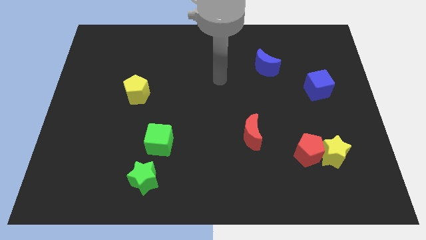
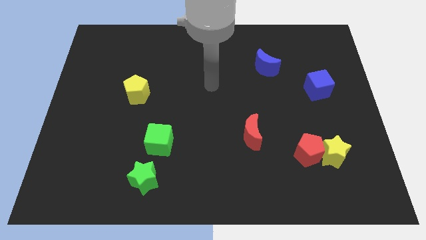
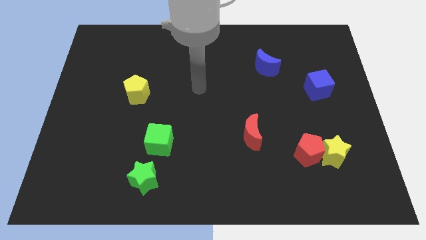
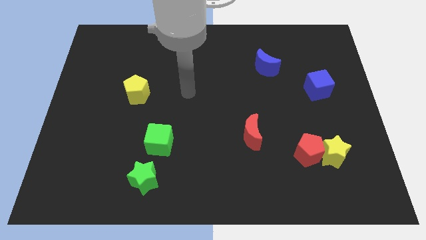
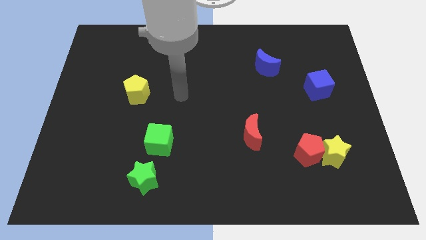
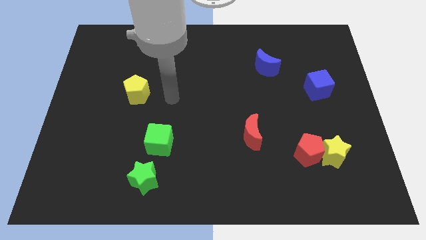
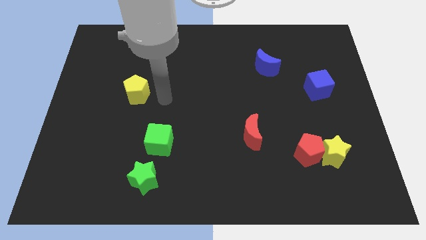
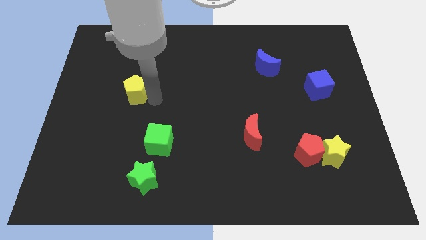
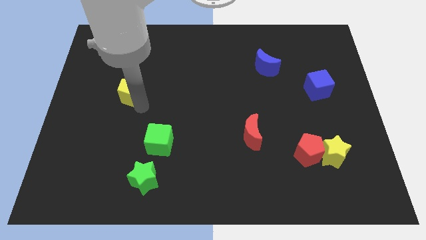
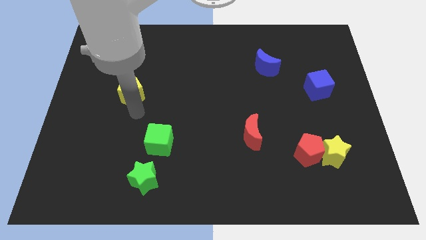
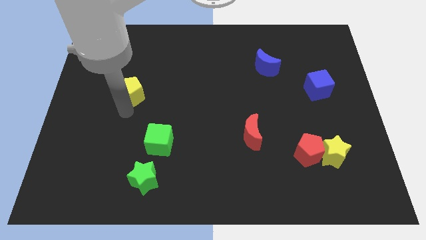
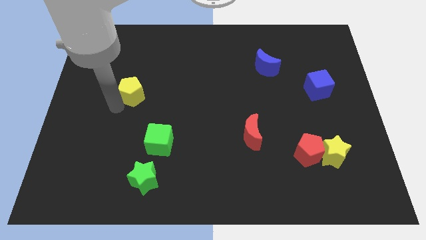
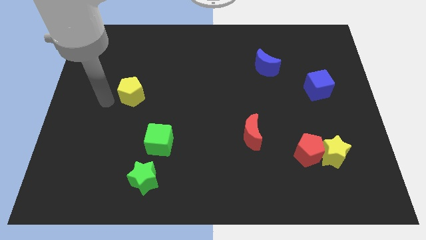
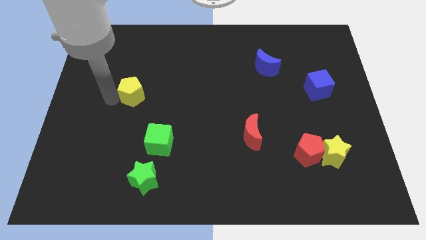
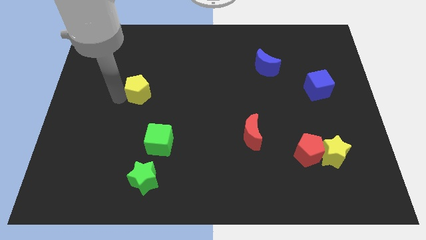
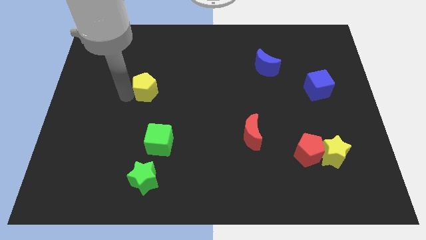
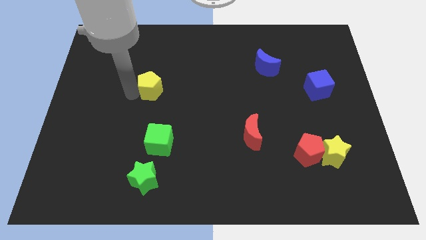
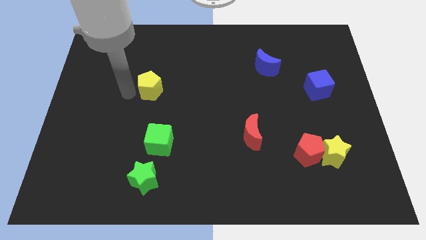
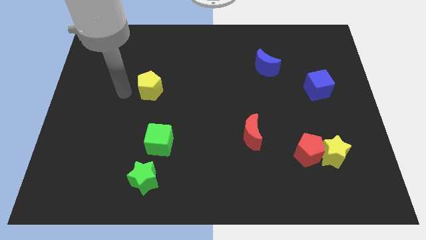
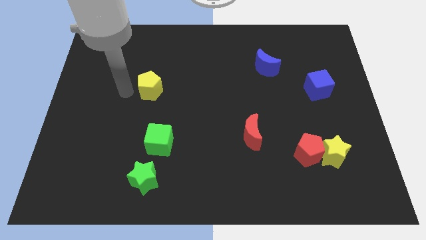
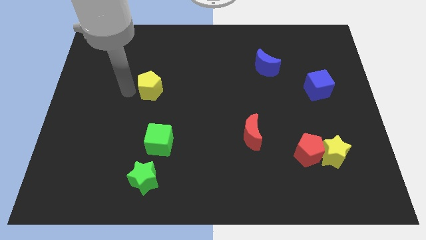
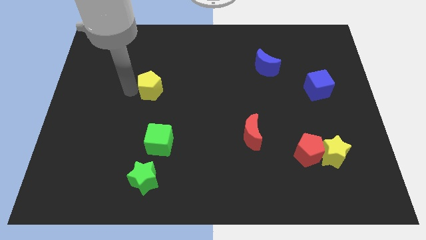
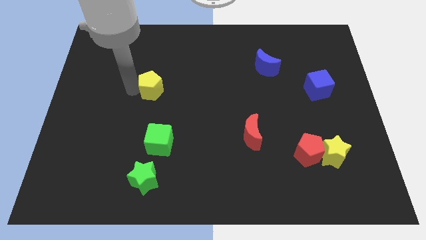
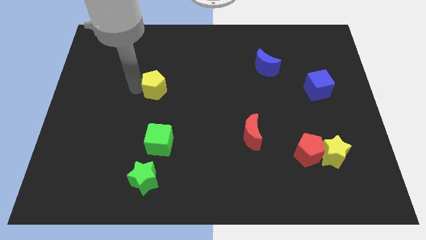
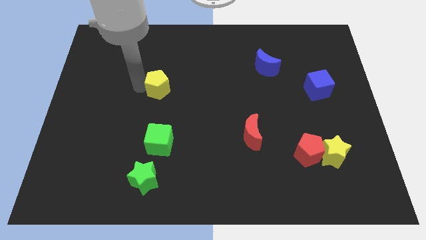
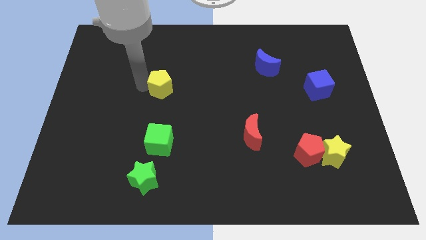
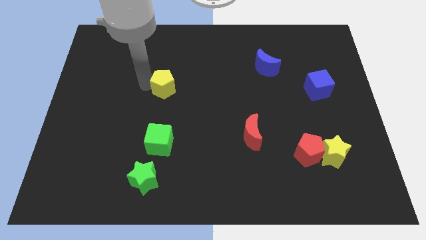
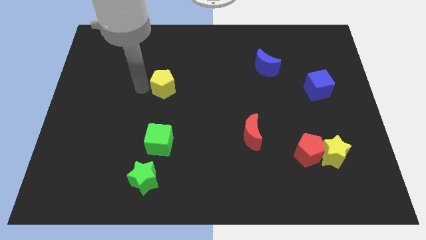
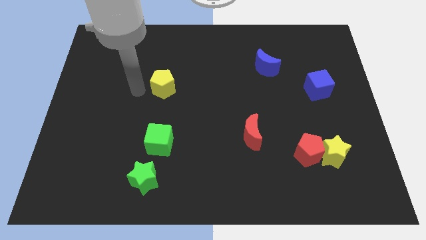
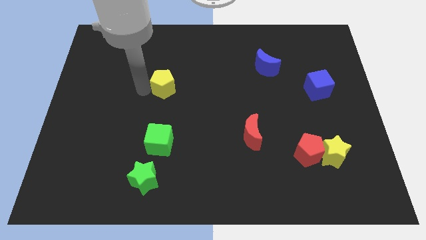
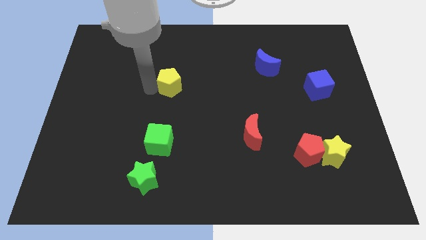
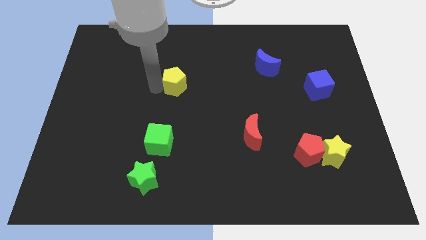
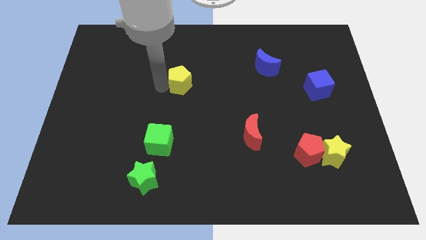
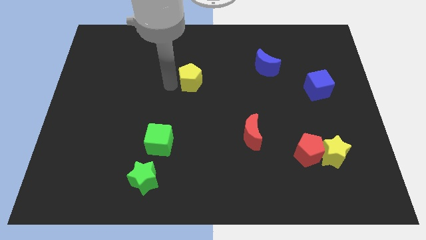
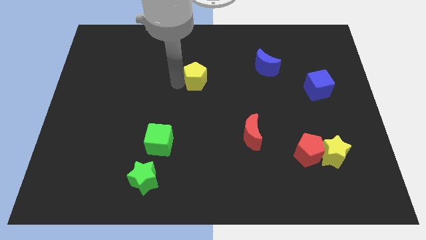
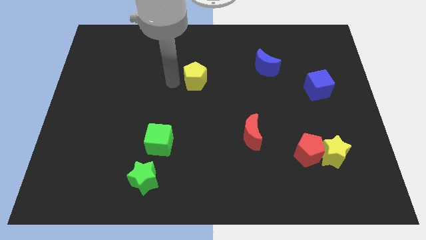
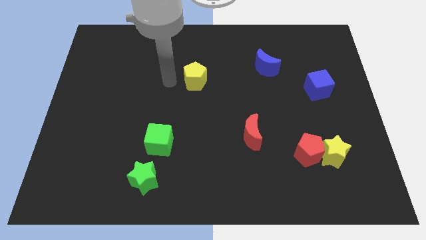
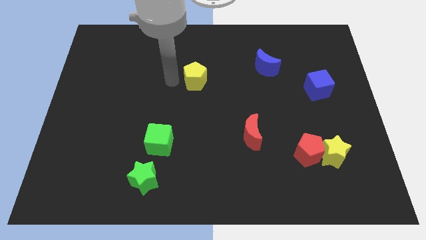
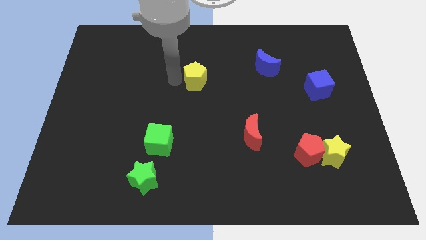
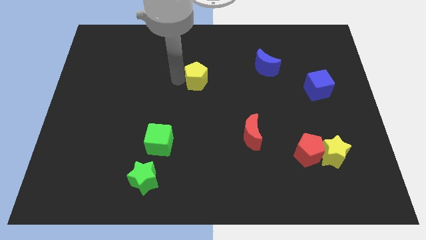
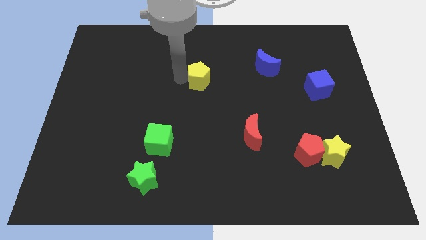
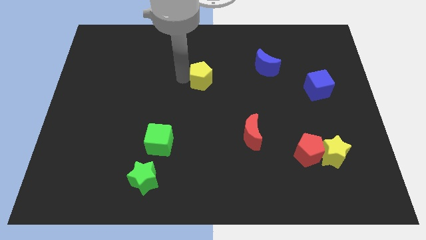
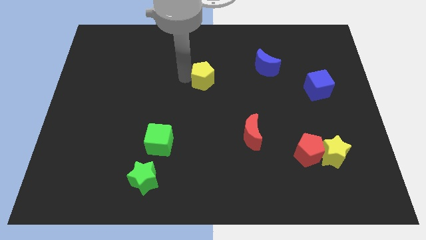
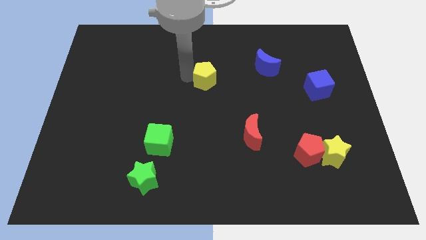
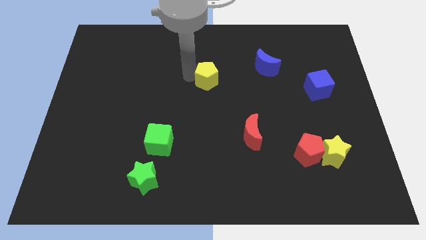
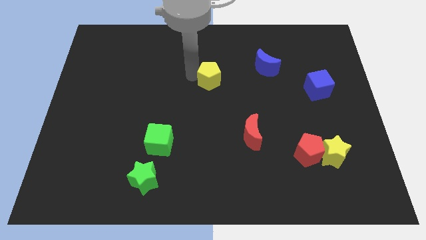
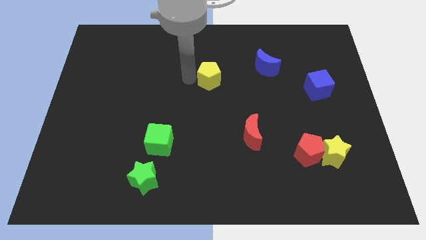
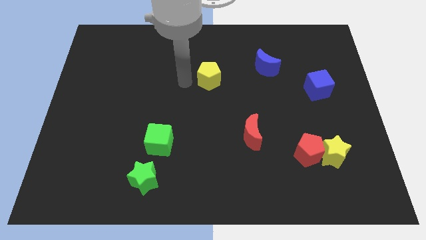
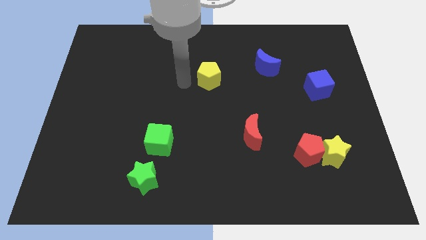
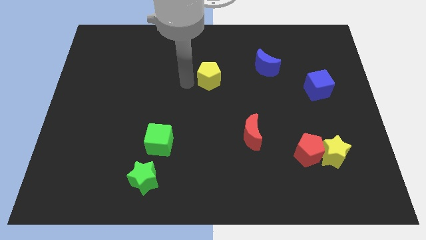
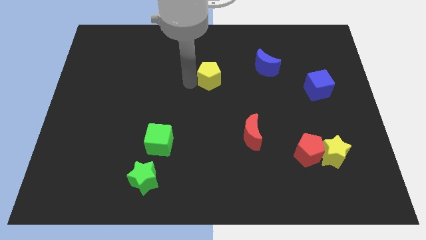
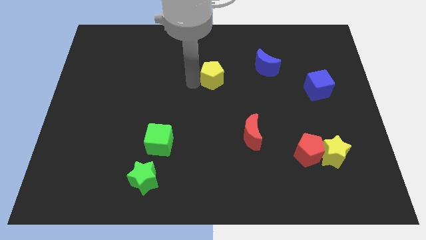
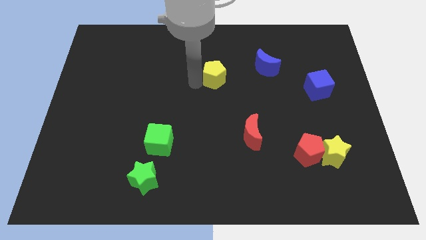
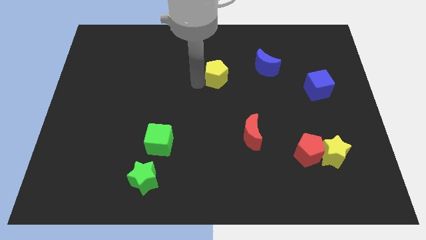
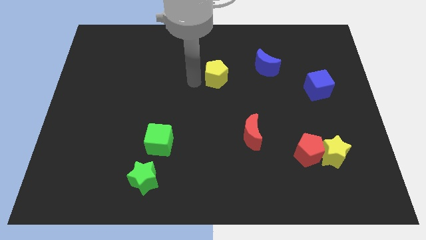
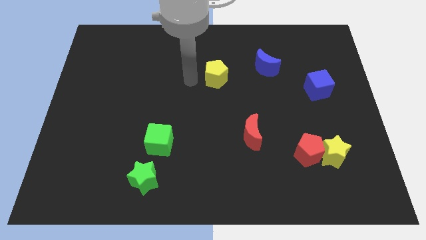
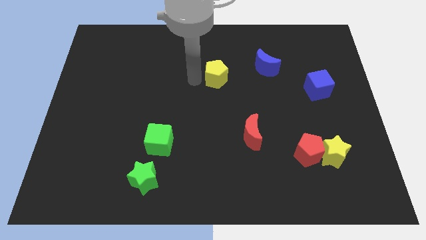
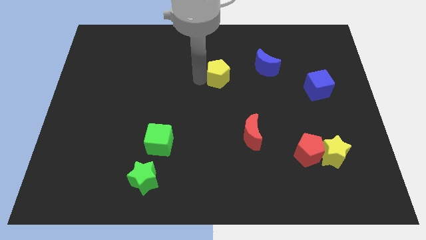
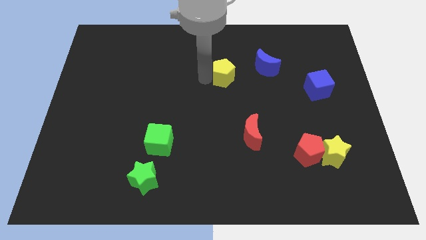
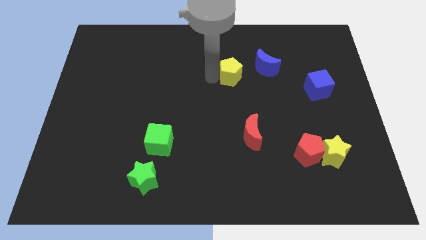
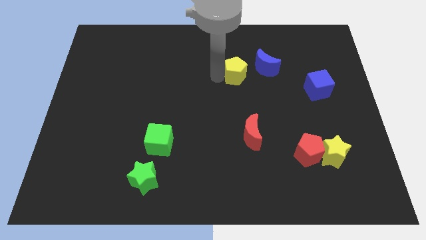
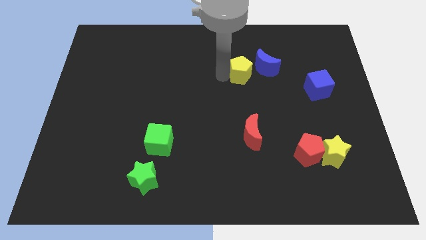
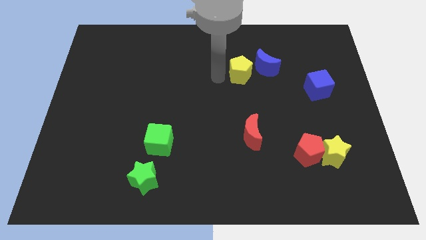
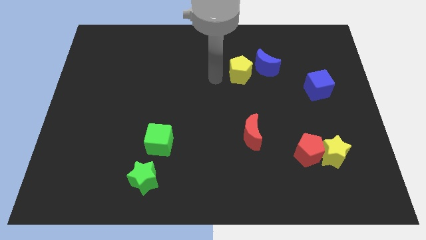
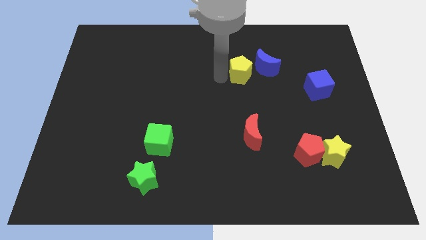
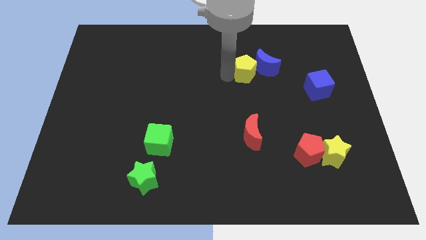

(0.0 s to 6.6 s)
put the yellow pentagon close to the blue moon

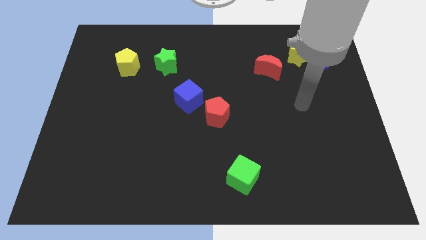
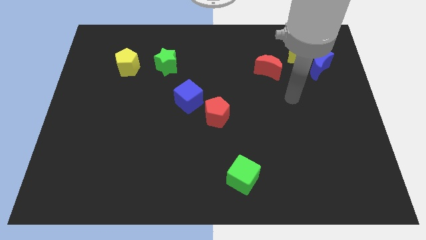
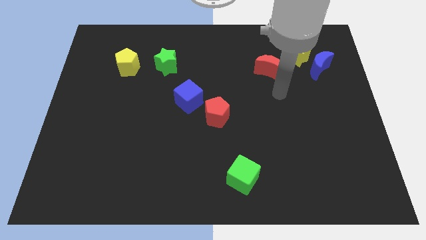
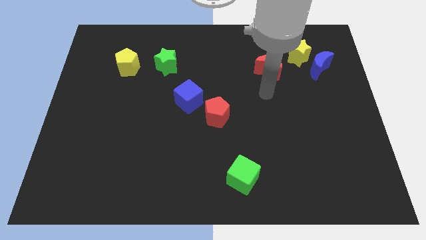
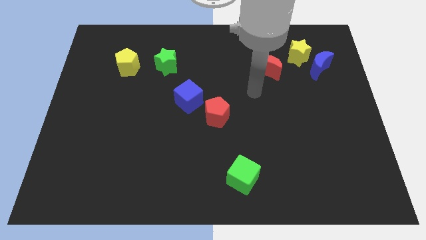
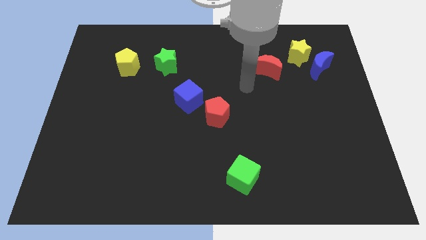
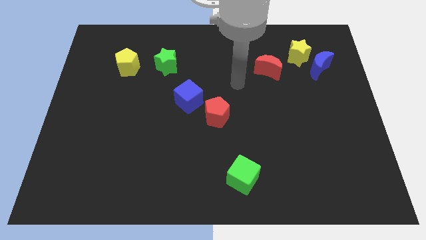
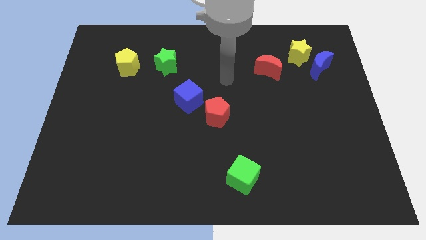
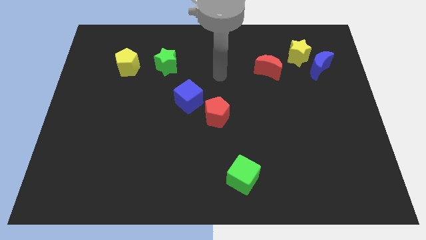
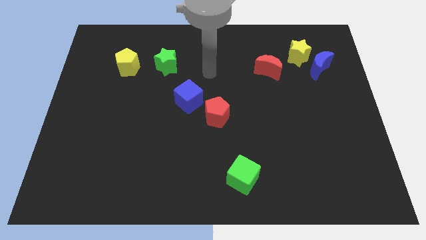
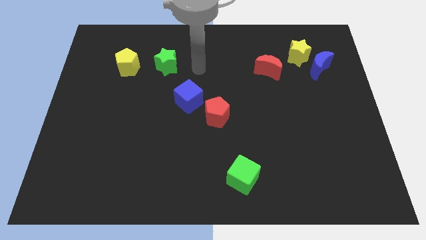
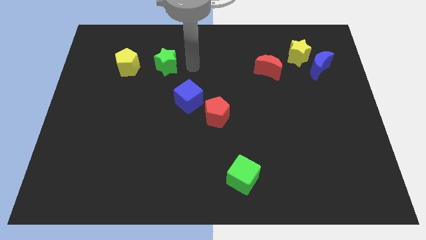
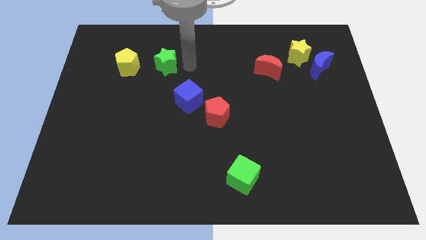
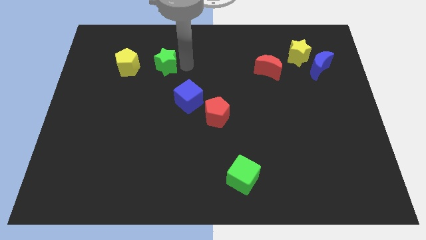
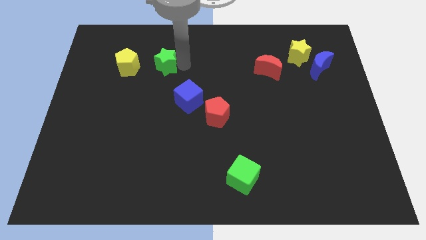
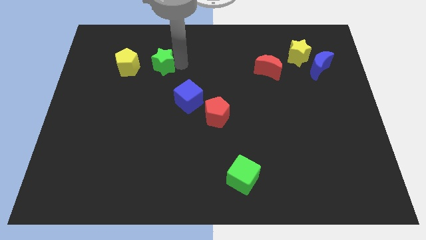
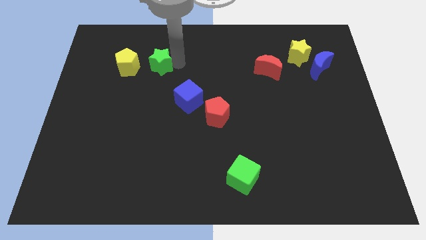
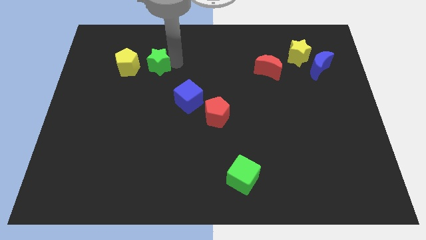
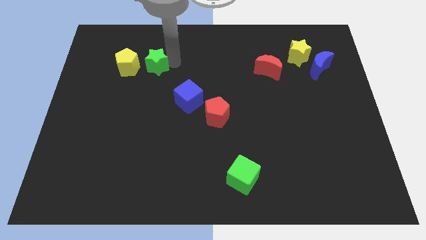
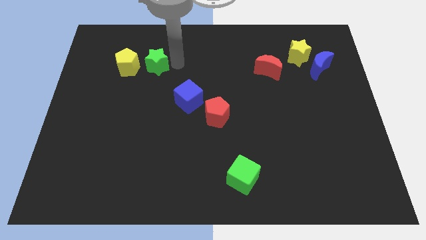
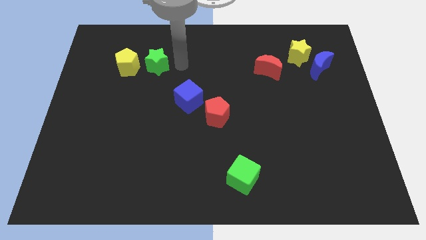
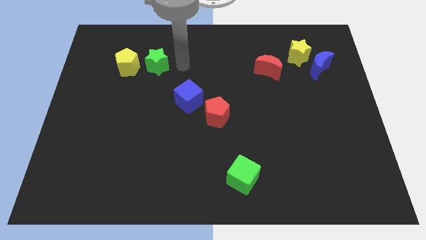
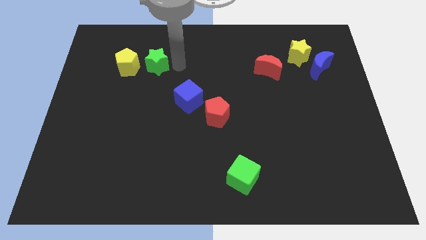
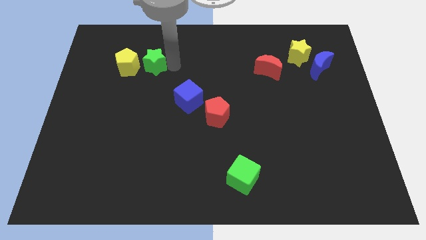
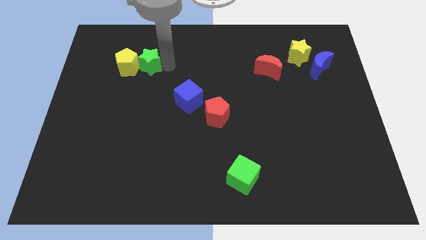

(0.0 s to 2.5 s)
push the green star towards the yellow pentagon
